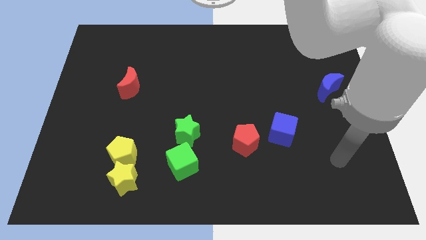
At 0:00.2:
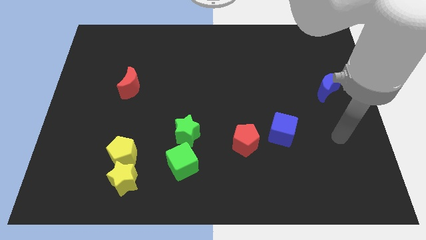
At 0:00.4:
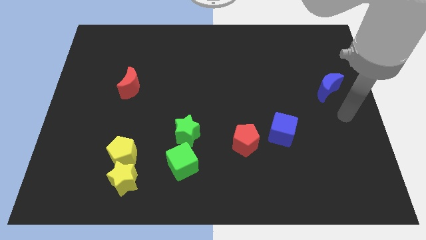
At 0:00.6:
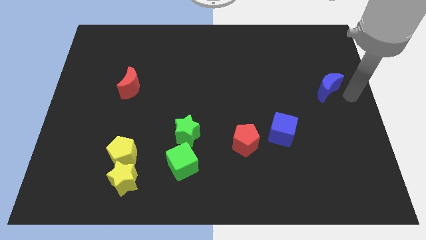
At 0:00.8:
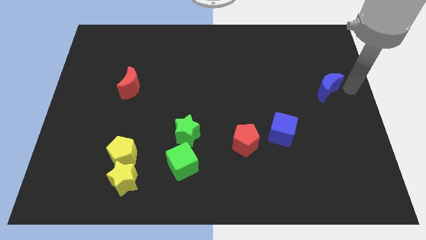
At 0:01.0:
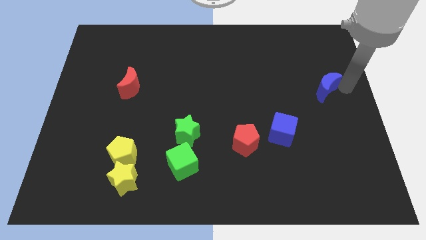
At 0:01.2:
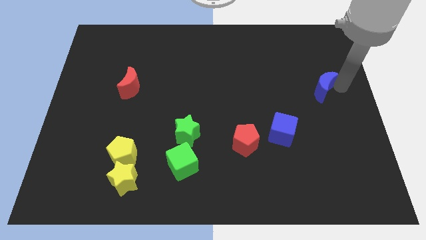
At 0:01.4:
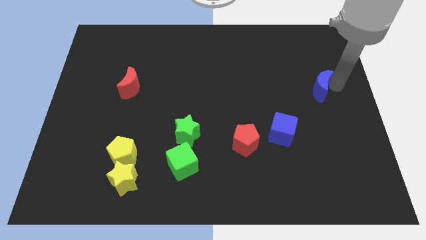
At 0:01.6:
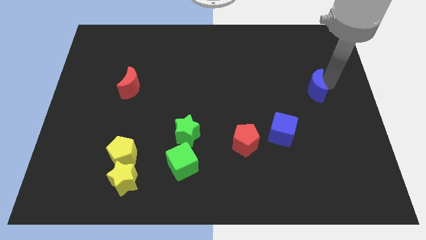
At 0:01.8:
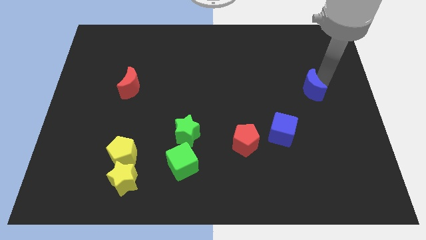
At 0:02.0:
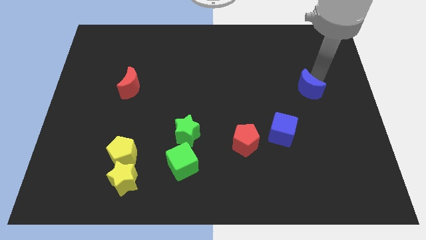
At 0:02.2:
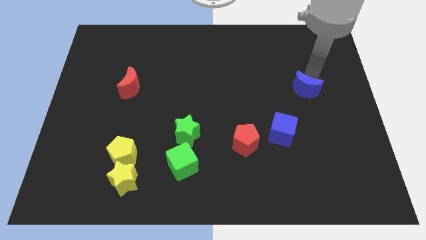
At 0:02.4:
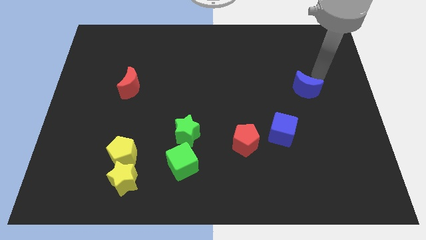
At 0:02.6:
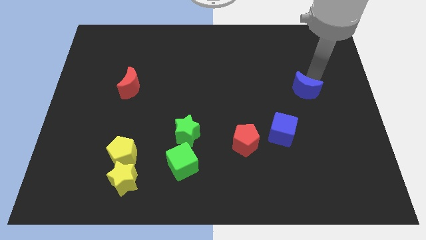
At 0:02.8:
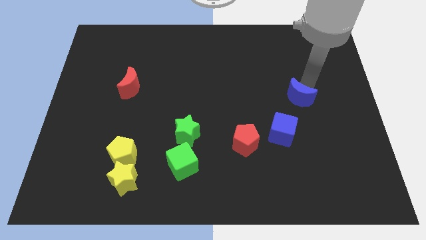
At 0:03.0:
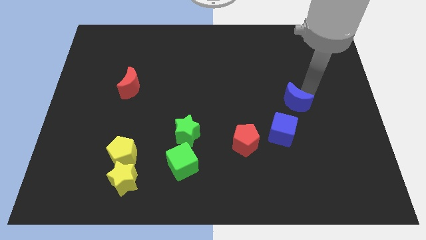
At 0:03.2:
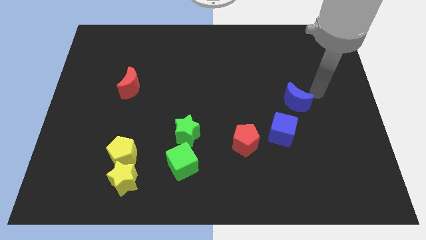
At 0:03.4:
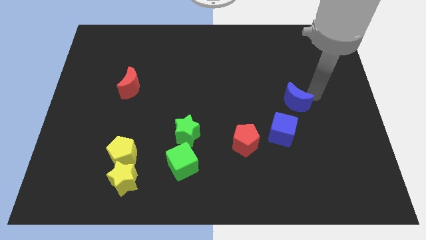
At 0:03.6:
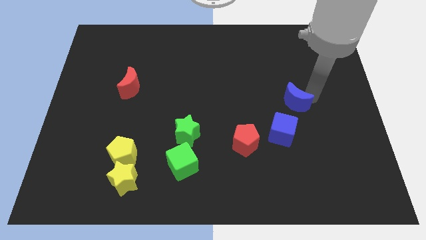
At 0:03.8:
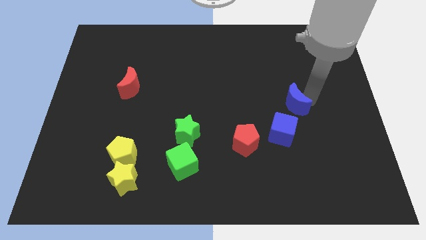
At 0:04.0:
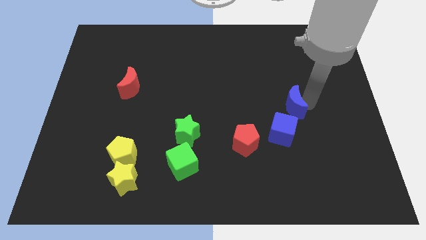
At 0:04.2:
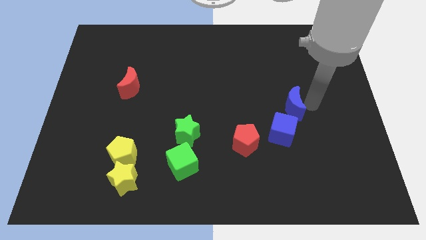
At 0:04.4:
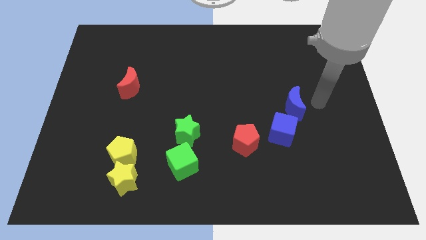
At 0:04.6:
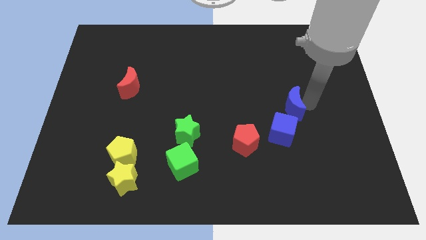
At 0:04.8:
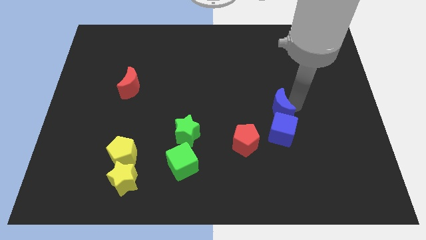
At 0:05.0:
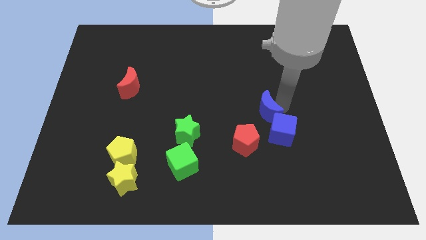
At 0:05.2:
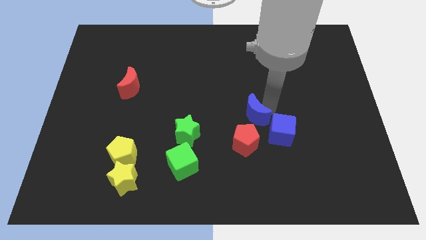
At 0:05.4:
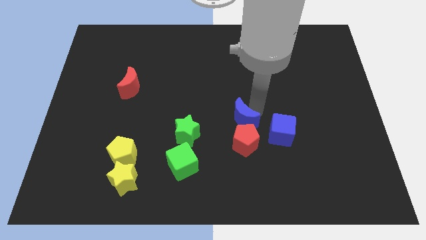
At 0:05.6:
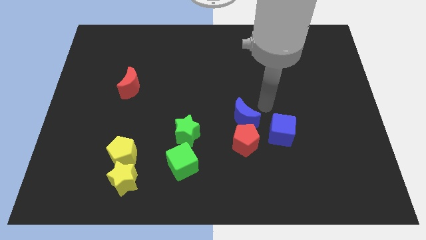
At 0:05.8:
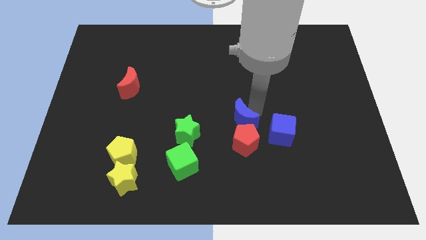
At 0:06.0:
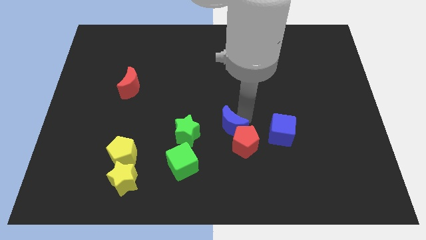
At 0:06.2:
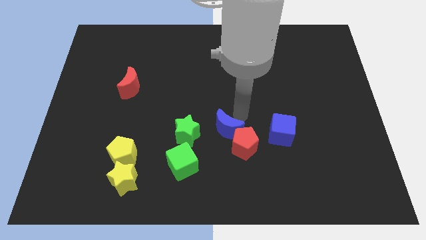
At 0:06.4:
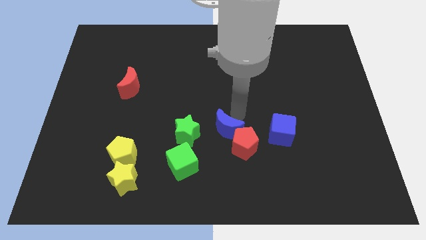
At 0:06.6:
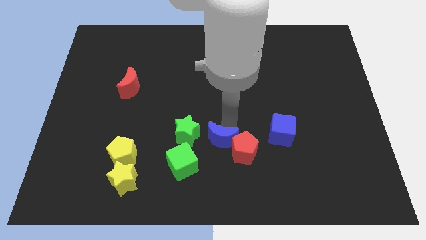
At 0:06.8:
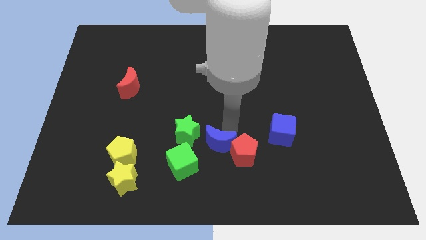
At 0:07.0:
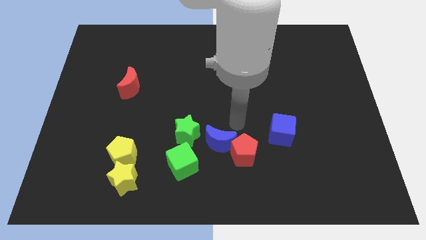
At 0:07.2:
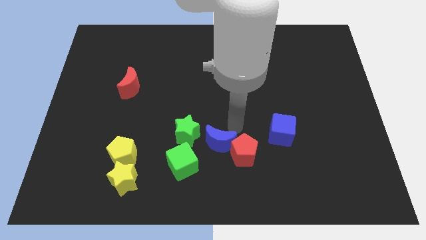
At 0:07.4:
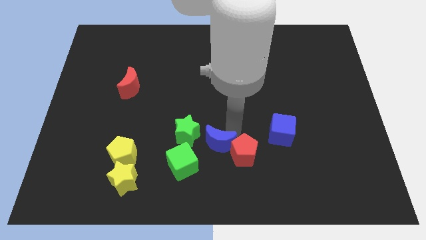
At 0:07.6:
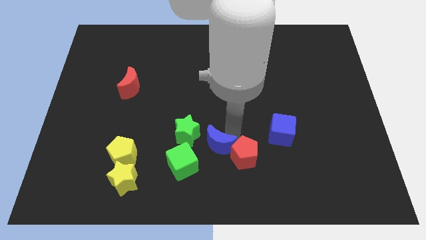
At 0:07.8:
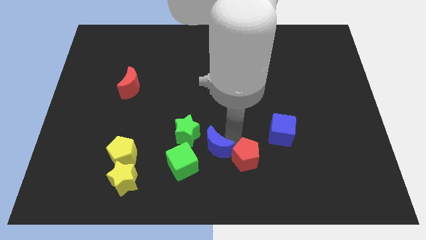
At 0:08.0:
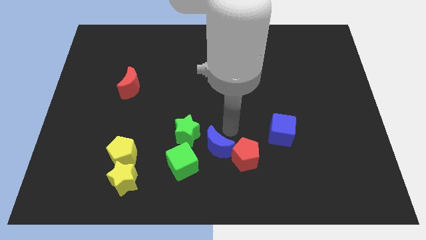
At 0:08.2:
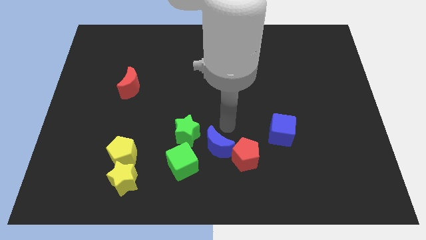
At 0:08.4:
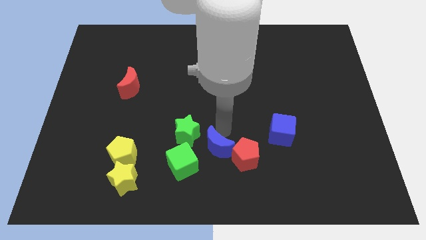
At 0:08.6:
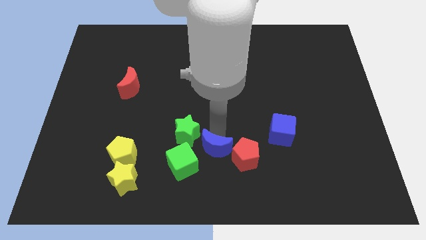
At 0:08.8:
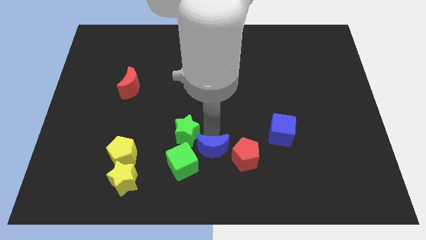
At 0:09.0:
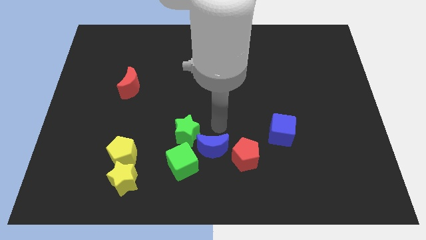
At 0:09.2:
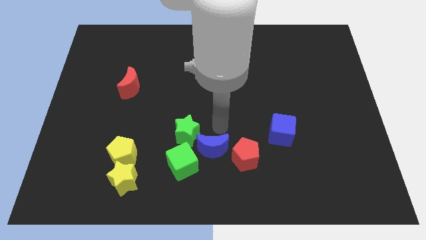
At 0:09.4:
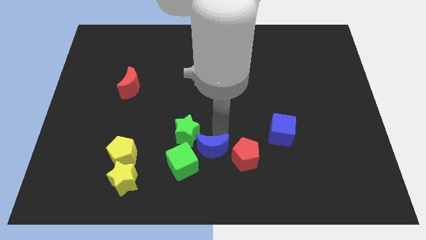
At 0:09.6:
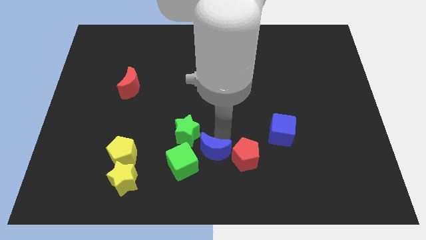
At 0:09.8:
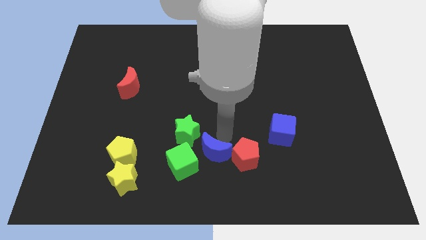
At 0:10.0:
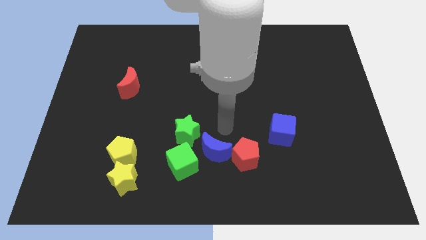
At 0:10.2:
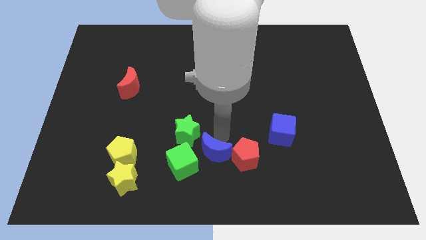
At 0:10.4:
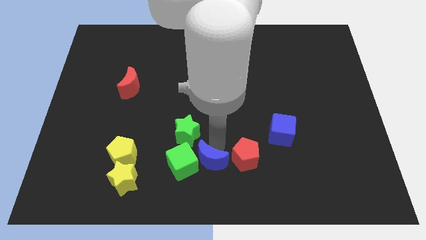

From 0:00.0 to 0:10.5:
move the blue moon below the green star

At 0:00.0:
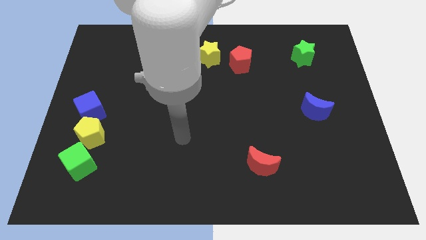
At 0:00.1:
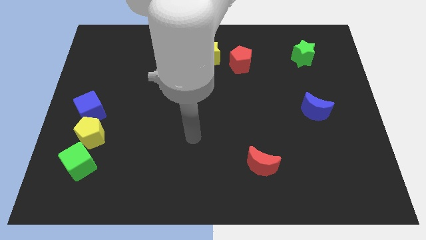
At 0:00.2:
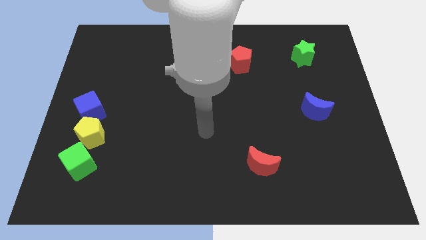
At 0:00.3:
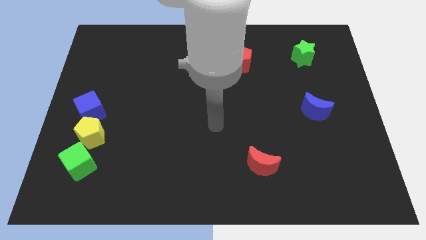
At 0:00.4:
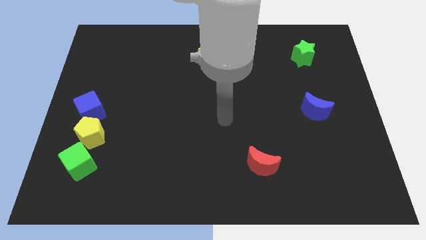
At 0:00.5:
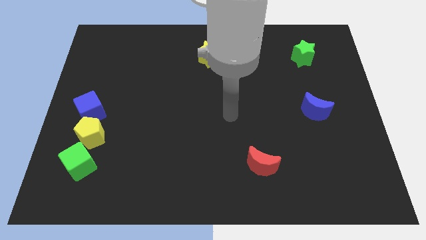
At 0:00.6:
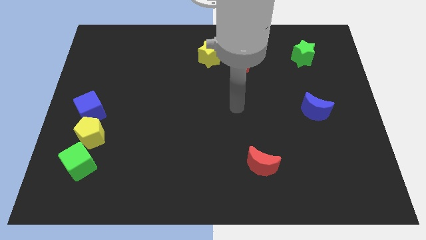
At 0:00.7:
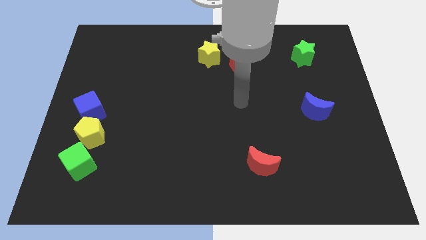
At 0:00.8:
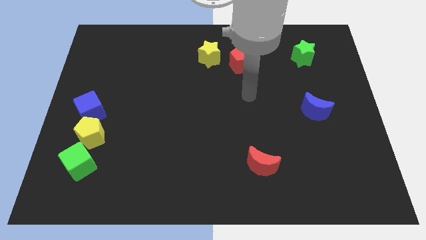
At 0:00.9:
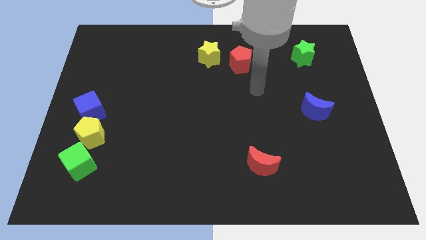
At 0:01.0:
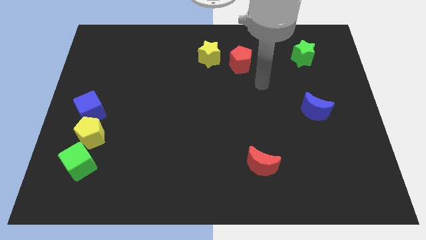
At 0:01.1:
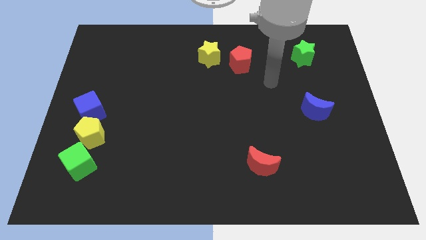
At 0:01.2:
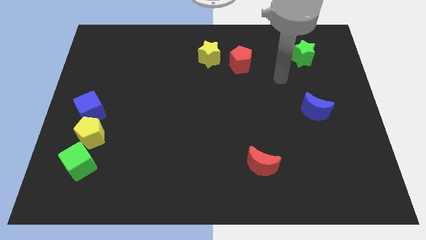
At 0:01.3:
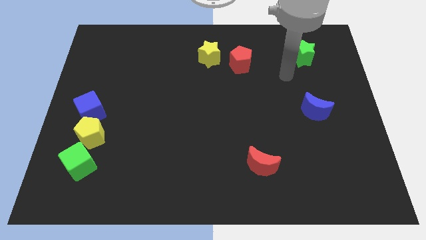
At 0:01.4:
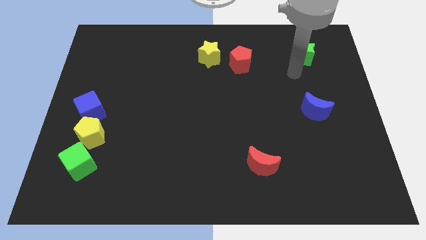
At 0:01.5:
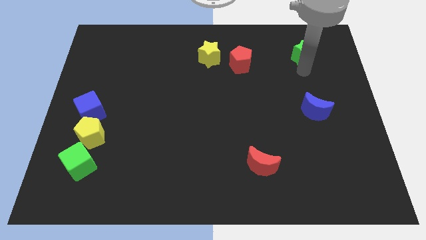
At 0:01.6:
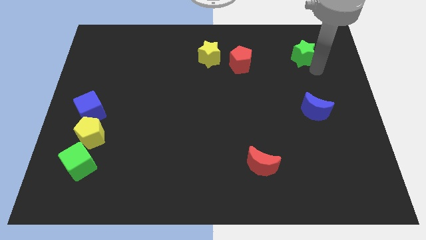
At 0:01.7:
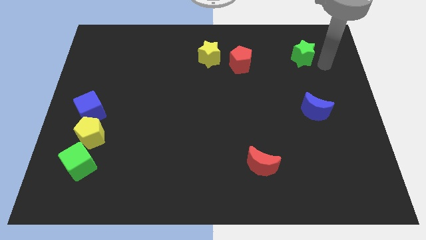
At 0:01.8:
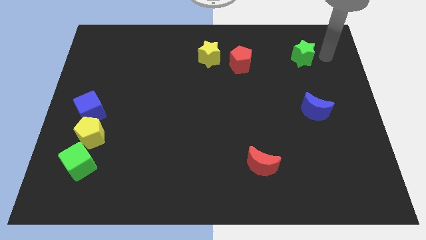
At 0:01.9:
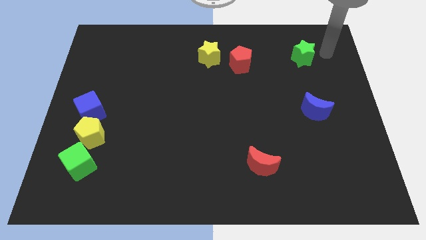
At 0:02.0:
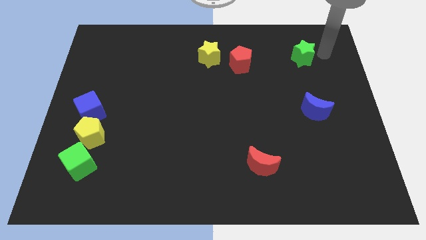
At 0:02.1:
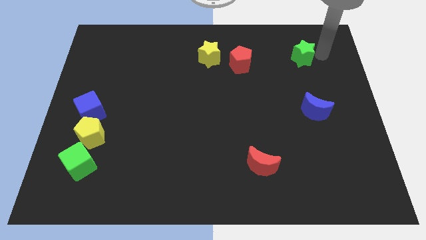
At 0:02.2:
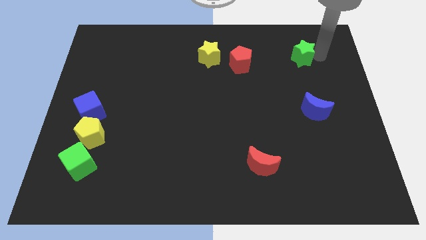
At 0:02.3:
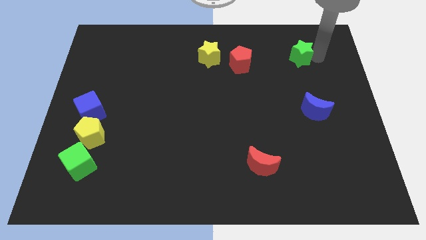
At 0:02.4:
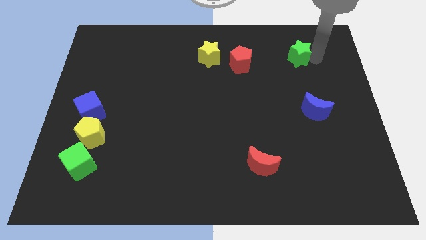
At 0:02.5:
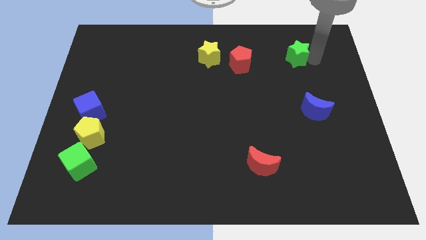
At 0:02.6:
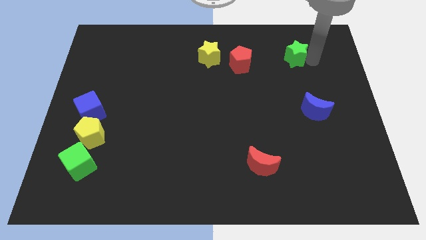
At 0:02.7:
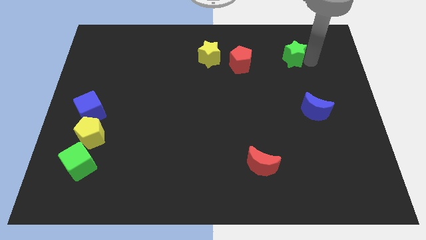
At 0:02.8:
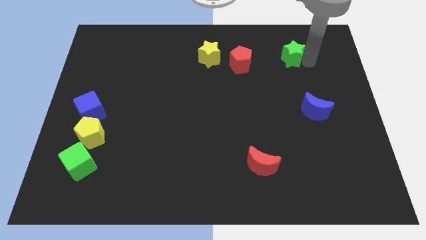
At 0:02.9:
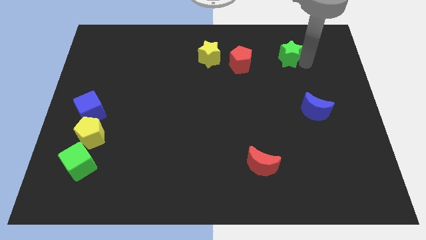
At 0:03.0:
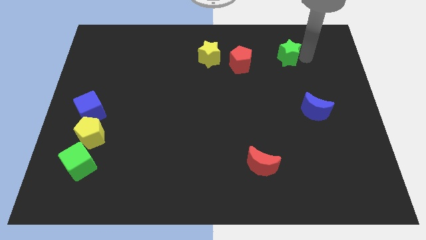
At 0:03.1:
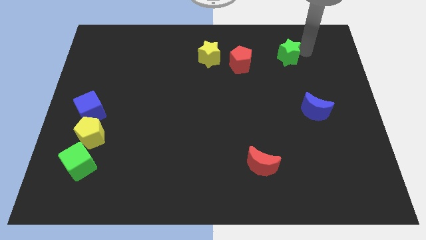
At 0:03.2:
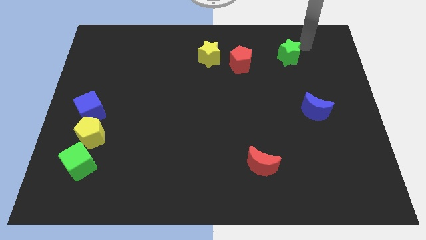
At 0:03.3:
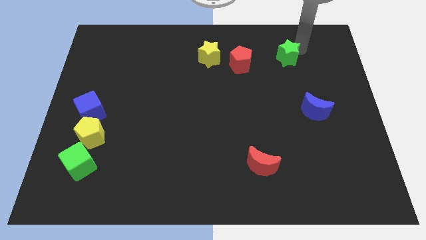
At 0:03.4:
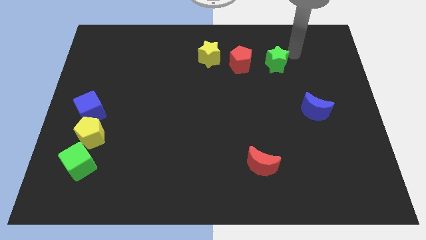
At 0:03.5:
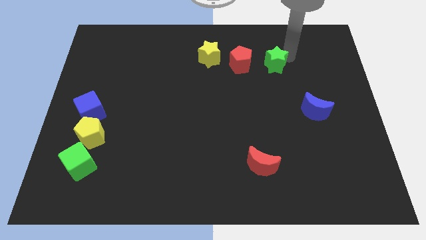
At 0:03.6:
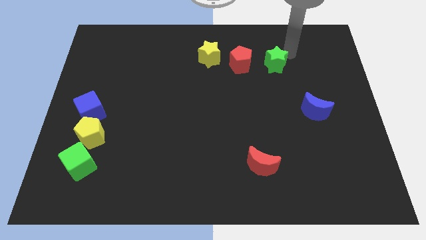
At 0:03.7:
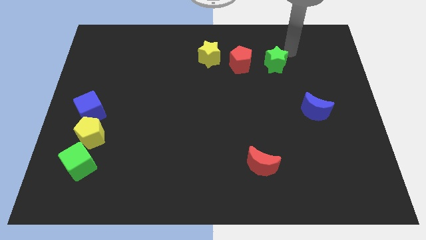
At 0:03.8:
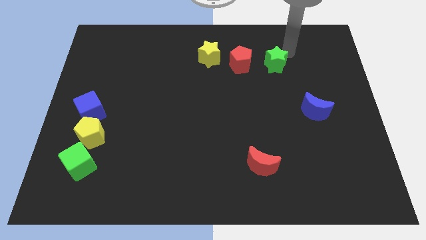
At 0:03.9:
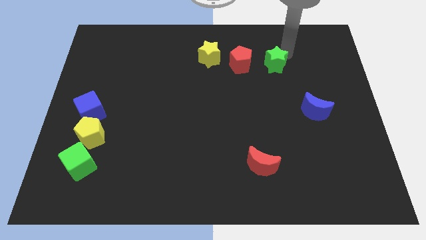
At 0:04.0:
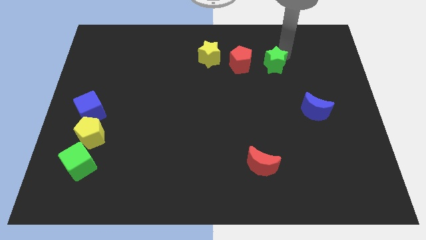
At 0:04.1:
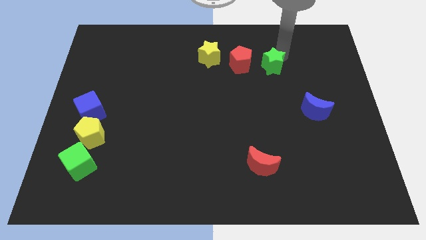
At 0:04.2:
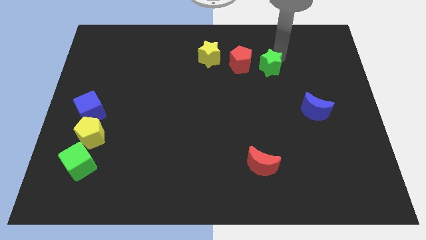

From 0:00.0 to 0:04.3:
put the green star diagonally down and to the right of the red pentagon
